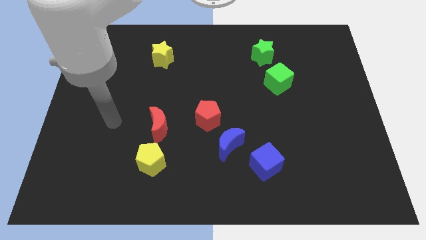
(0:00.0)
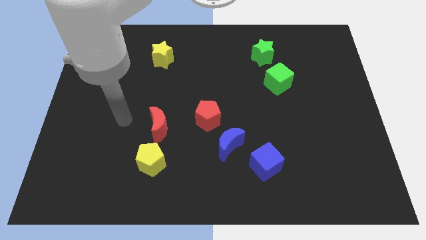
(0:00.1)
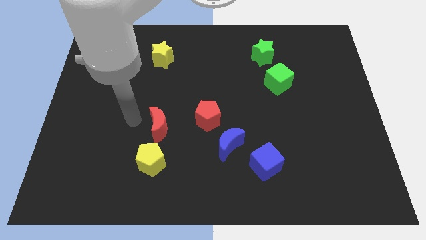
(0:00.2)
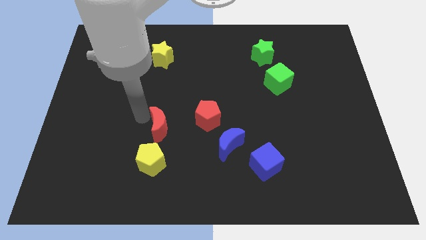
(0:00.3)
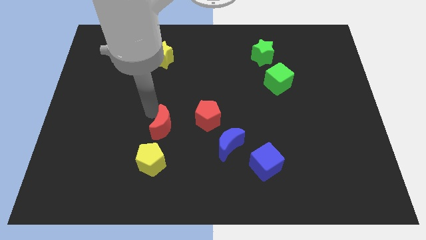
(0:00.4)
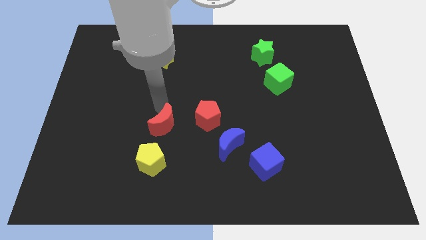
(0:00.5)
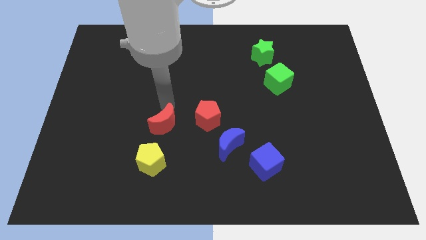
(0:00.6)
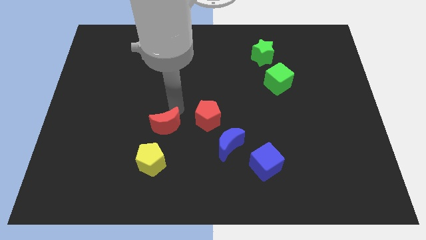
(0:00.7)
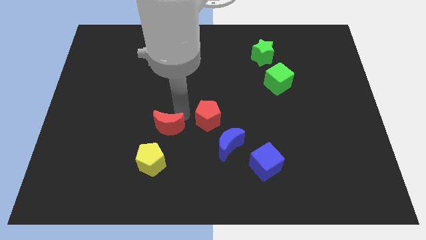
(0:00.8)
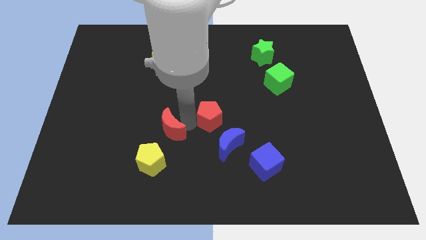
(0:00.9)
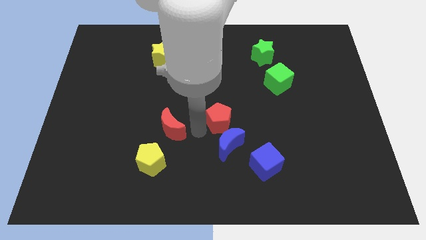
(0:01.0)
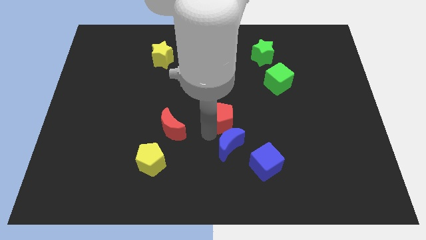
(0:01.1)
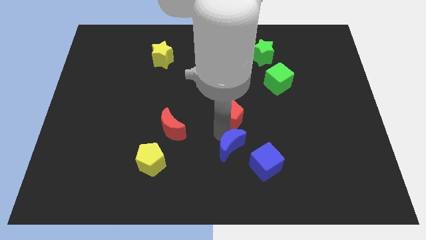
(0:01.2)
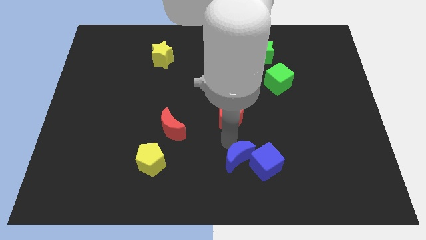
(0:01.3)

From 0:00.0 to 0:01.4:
pull the red pentagon apart from the blue moon

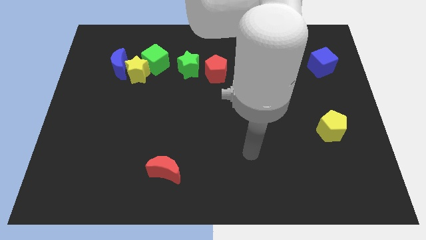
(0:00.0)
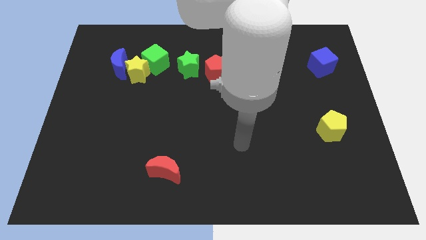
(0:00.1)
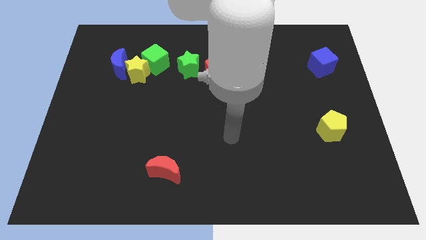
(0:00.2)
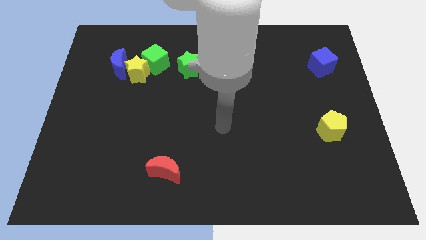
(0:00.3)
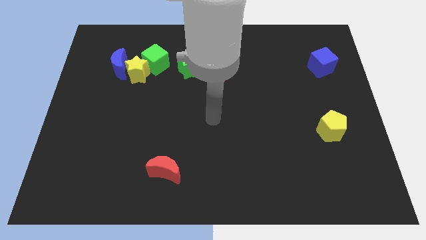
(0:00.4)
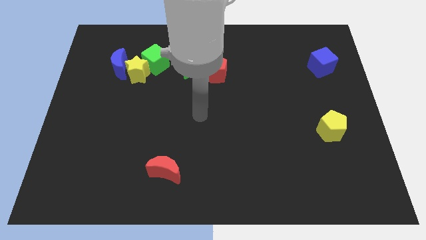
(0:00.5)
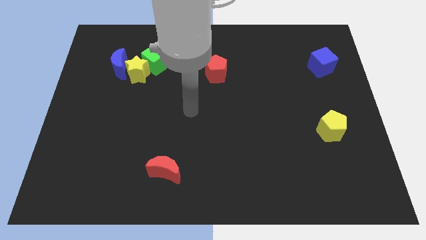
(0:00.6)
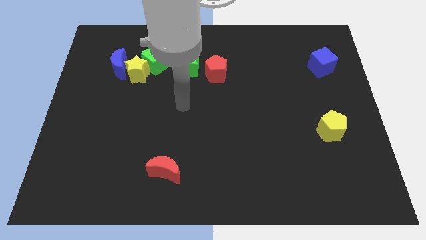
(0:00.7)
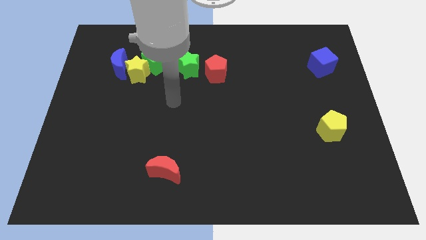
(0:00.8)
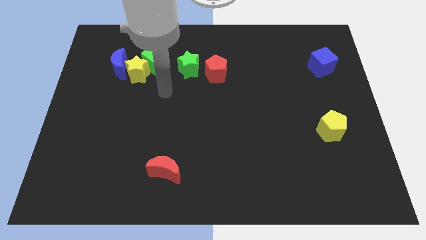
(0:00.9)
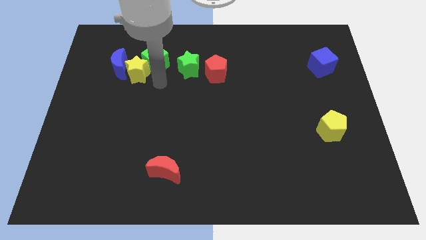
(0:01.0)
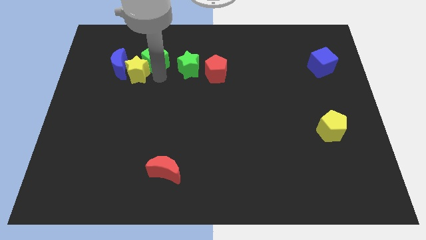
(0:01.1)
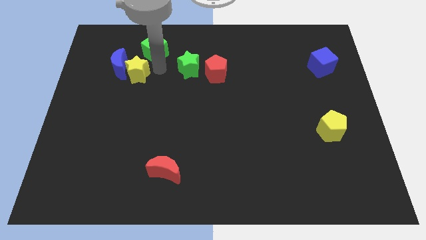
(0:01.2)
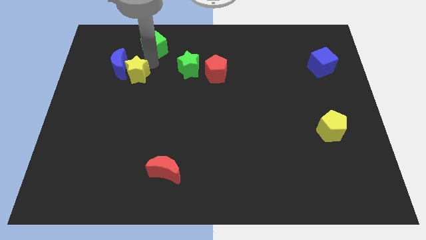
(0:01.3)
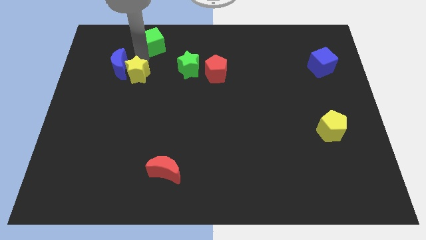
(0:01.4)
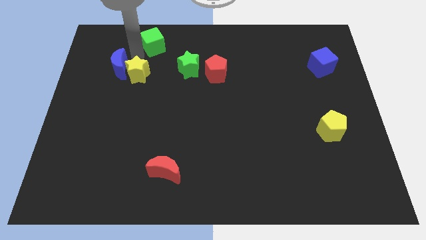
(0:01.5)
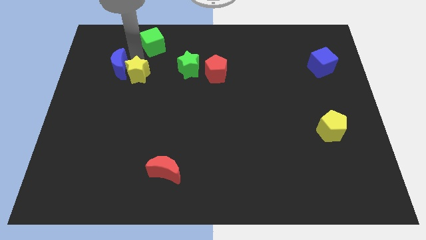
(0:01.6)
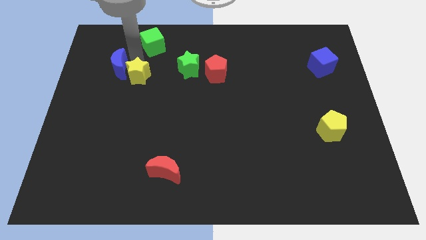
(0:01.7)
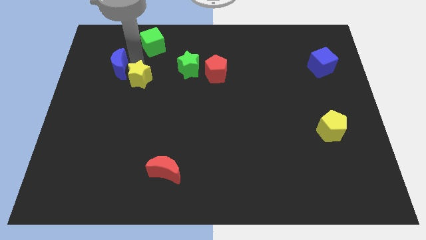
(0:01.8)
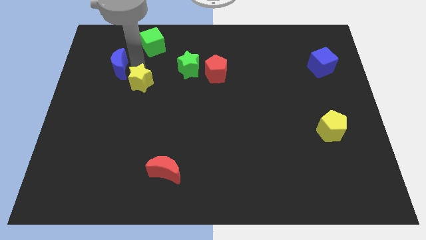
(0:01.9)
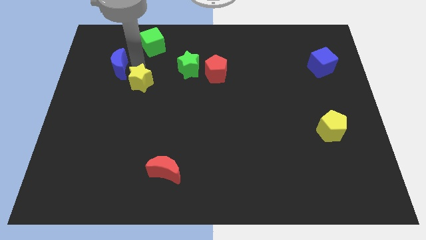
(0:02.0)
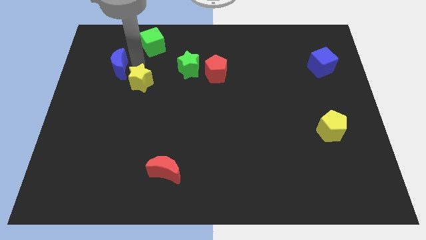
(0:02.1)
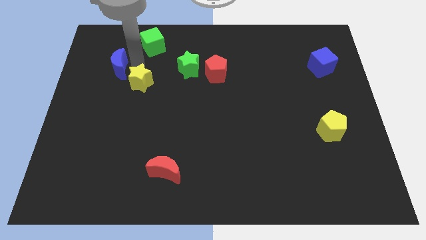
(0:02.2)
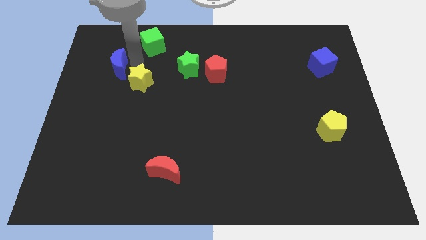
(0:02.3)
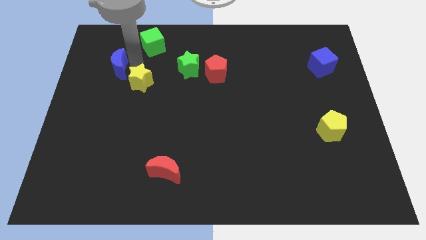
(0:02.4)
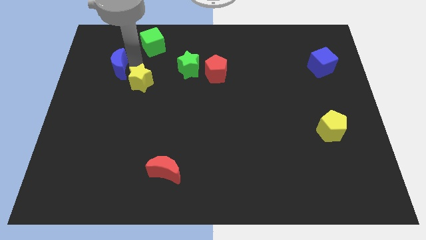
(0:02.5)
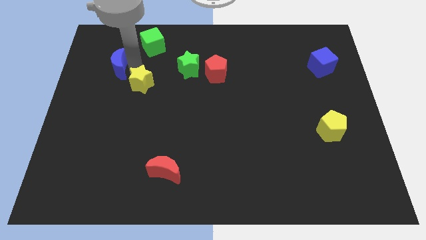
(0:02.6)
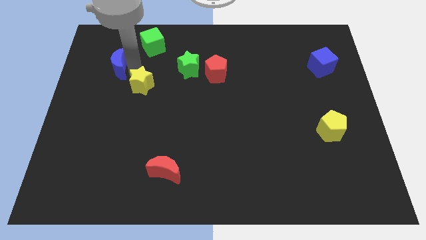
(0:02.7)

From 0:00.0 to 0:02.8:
move the yellow star away from the blue moon and green cube

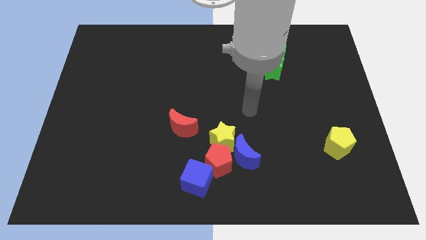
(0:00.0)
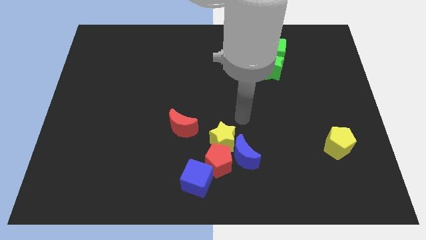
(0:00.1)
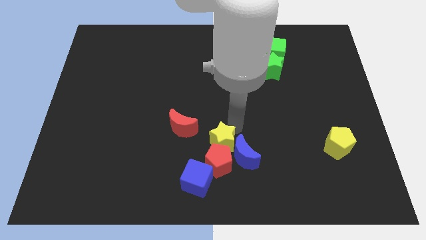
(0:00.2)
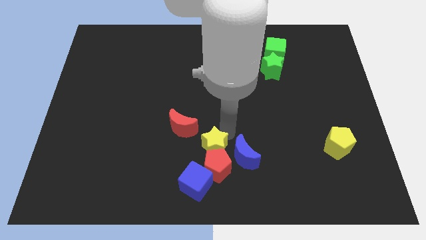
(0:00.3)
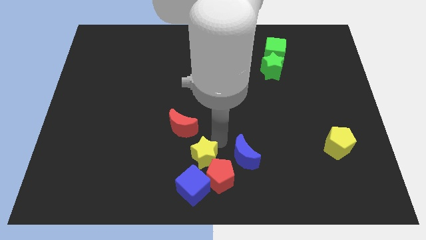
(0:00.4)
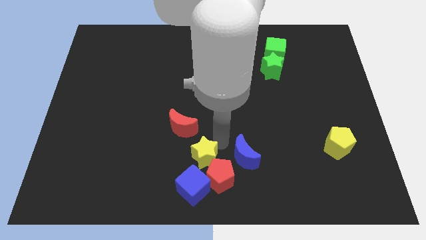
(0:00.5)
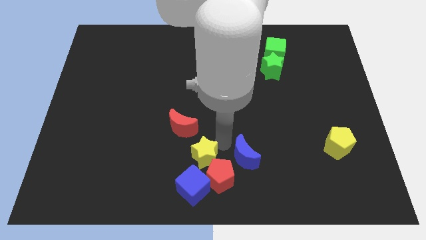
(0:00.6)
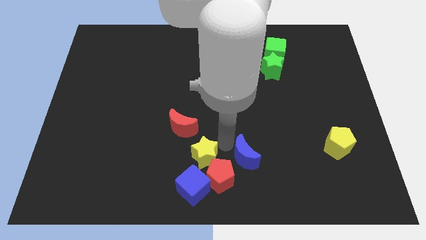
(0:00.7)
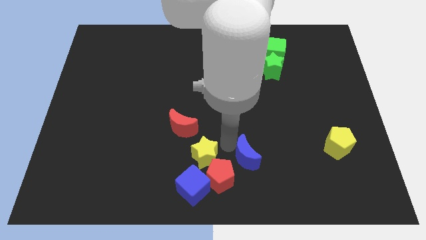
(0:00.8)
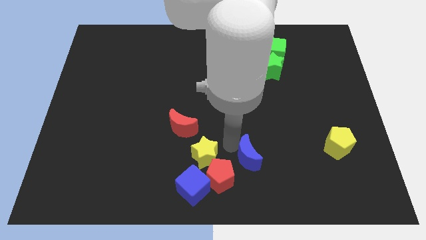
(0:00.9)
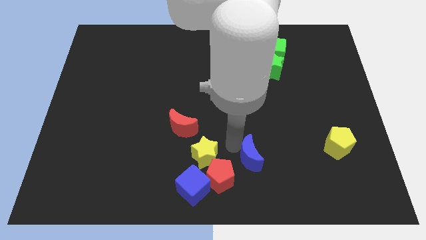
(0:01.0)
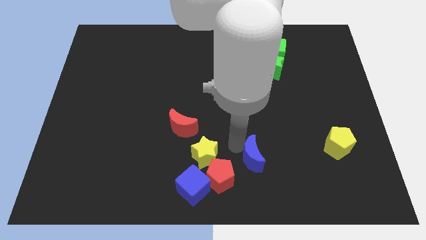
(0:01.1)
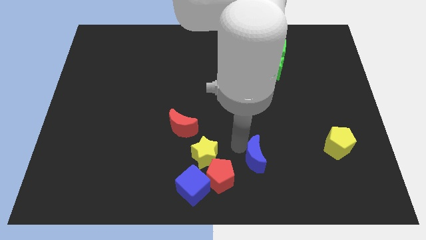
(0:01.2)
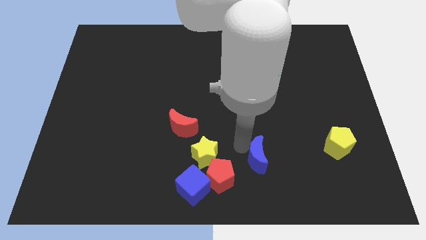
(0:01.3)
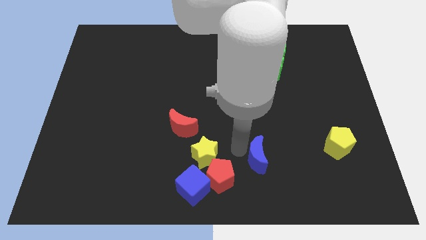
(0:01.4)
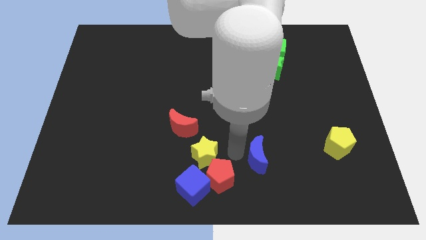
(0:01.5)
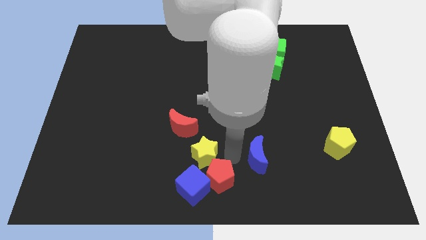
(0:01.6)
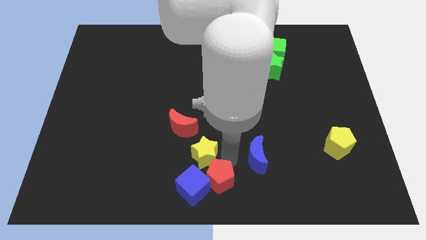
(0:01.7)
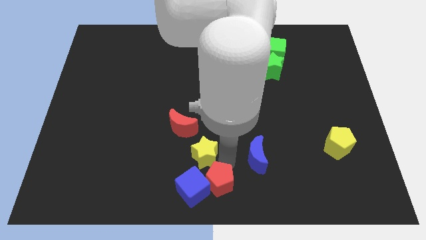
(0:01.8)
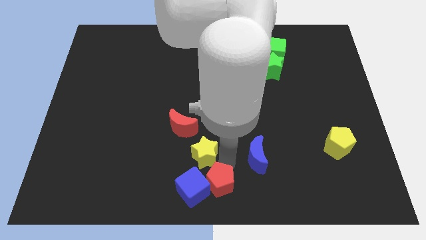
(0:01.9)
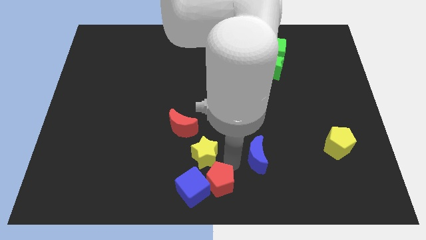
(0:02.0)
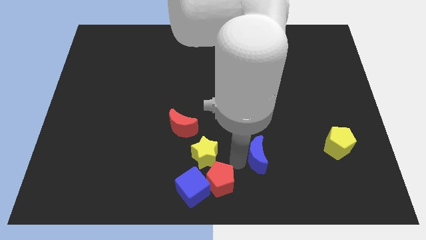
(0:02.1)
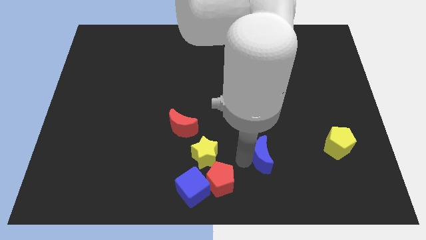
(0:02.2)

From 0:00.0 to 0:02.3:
pull the blue moon apart from the red pentagon and yellow star

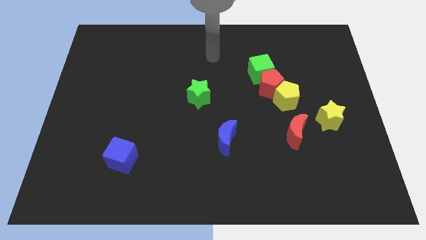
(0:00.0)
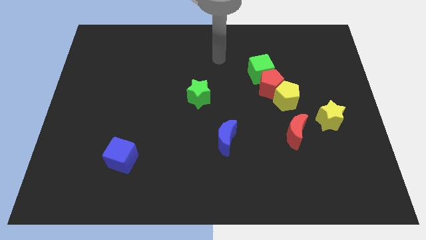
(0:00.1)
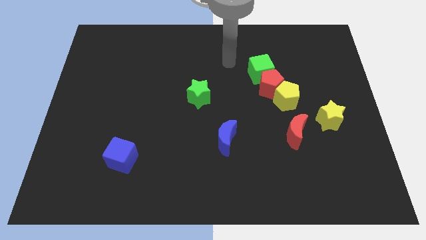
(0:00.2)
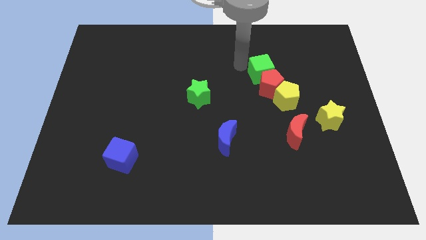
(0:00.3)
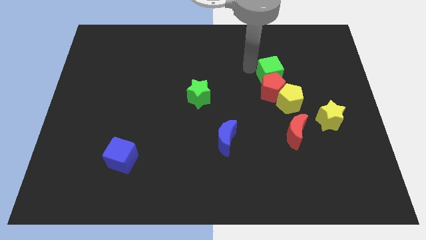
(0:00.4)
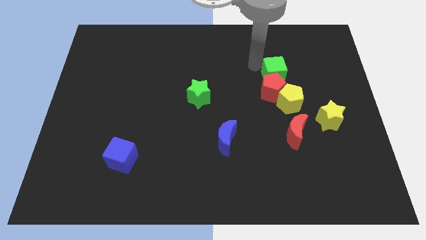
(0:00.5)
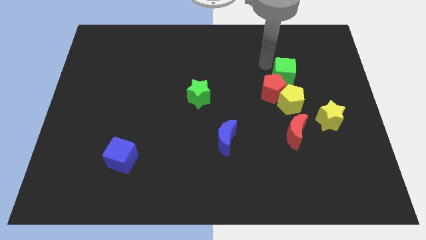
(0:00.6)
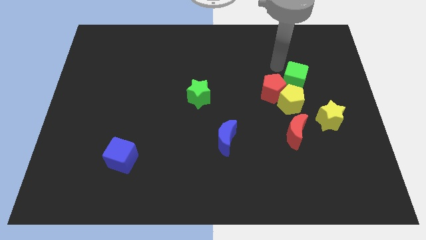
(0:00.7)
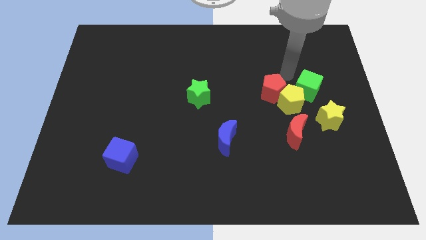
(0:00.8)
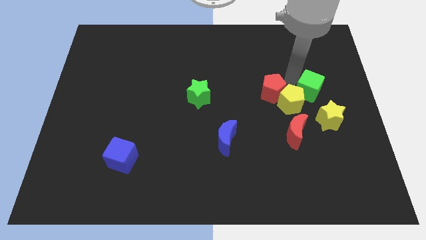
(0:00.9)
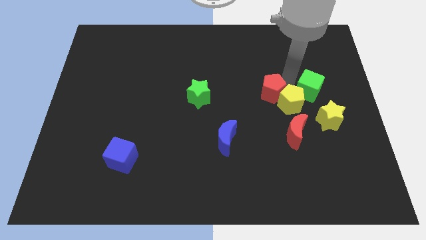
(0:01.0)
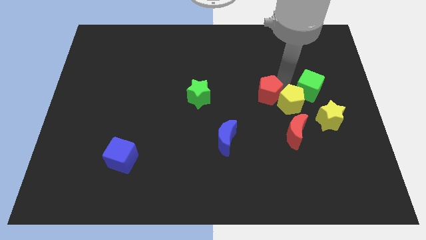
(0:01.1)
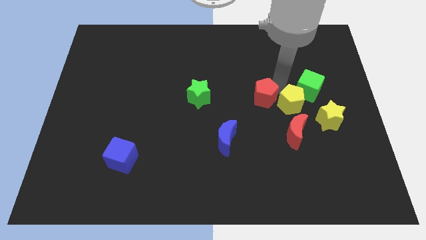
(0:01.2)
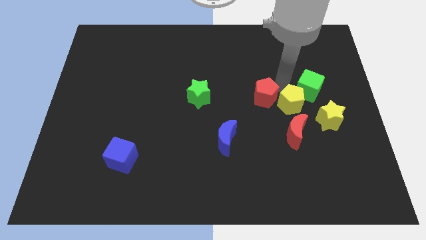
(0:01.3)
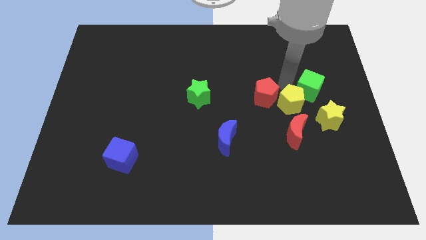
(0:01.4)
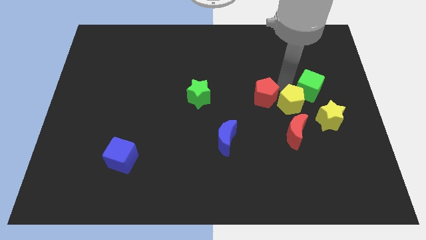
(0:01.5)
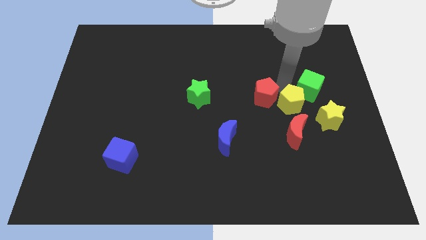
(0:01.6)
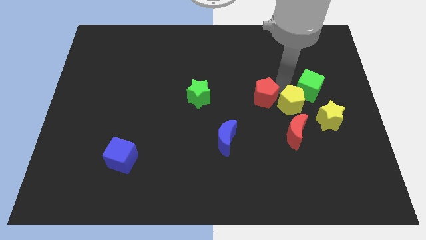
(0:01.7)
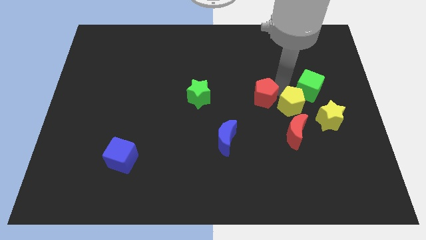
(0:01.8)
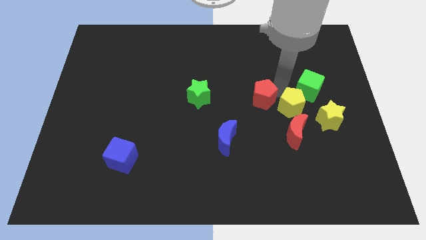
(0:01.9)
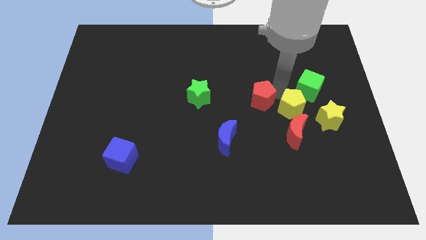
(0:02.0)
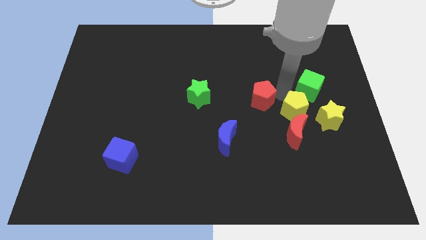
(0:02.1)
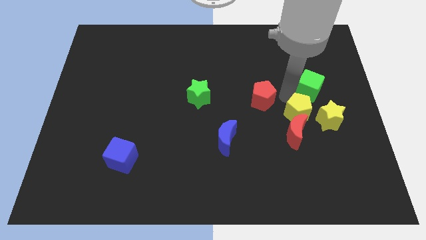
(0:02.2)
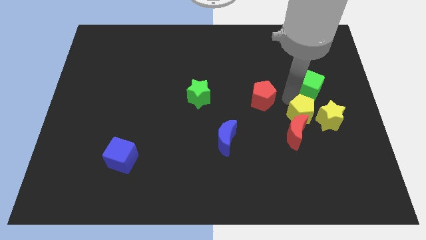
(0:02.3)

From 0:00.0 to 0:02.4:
move the red pentagon away from the yellow pentagon and green cube

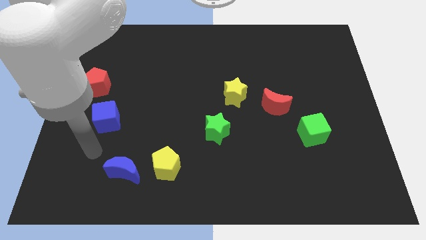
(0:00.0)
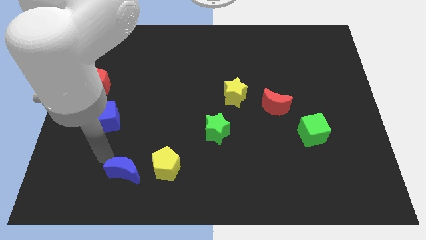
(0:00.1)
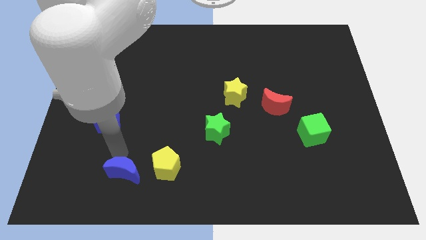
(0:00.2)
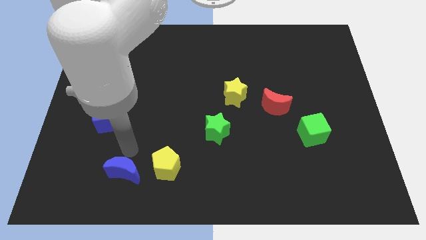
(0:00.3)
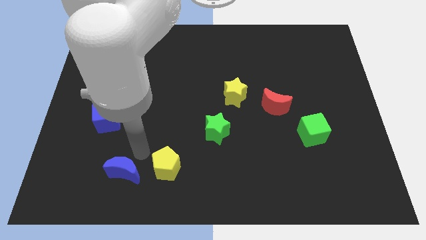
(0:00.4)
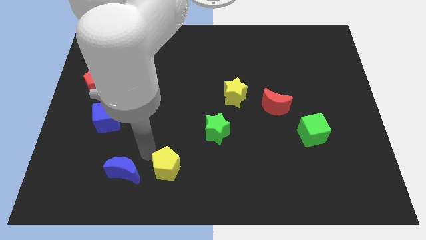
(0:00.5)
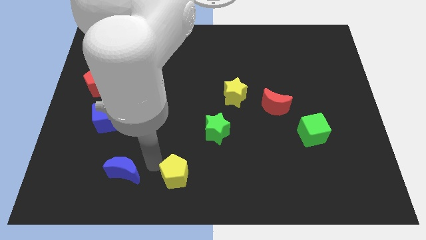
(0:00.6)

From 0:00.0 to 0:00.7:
separate the blue moon from the yellow pentagon
